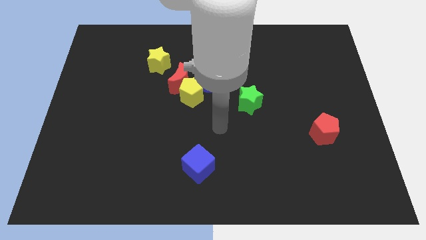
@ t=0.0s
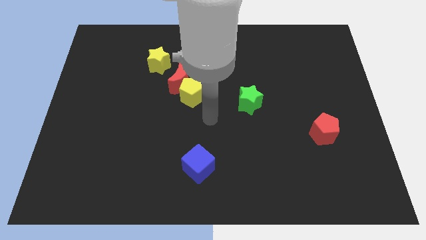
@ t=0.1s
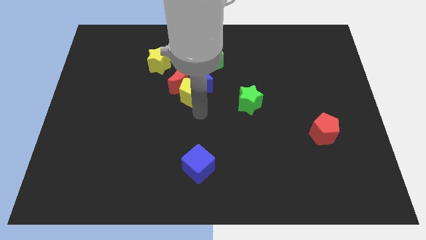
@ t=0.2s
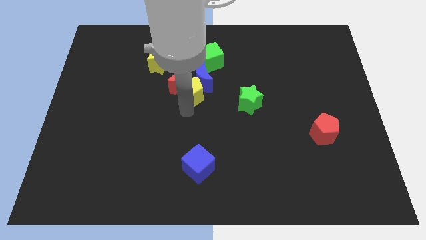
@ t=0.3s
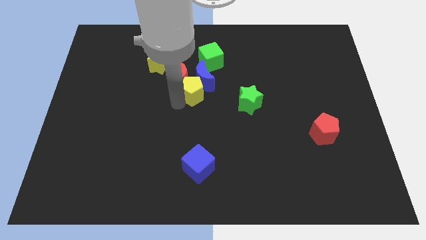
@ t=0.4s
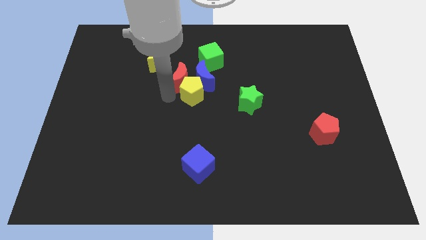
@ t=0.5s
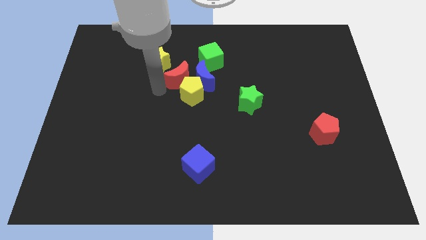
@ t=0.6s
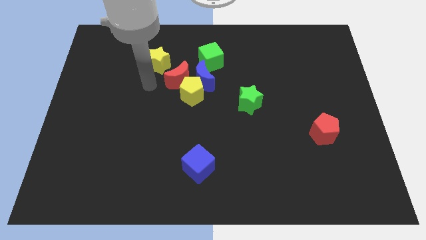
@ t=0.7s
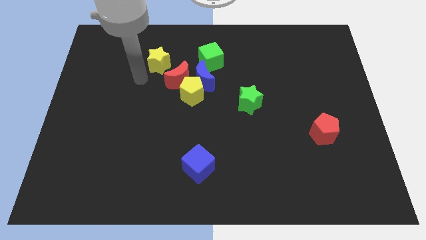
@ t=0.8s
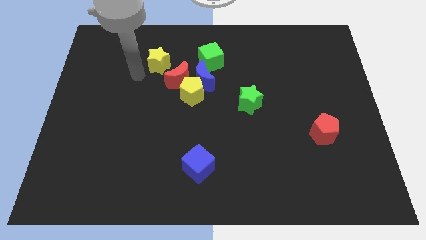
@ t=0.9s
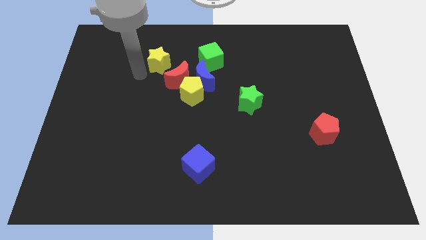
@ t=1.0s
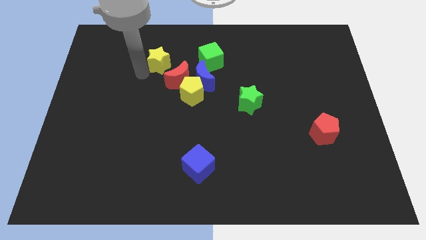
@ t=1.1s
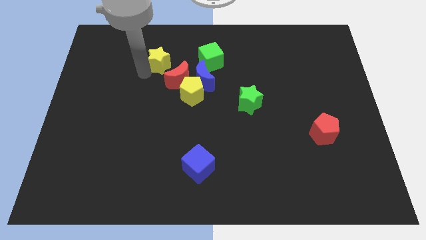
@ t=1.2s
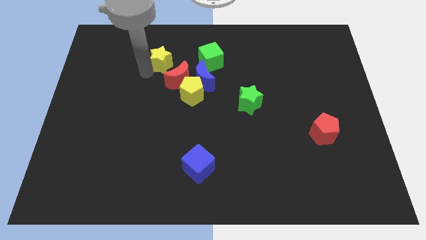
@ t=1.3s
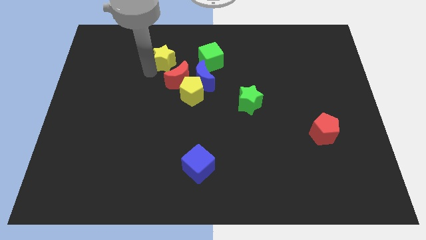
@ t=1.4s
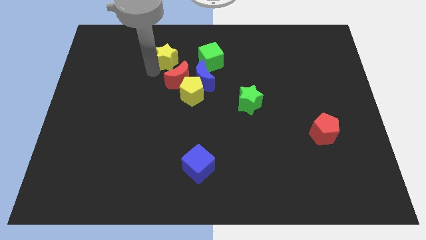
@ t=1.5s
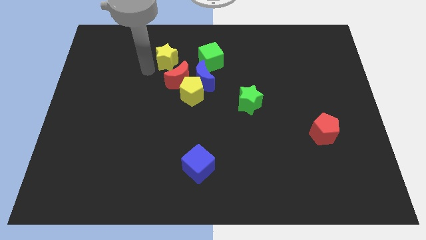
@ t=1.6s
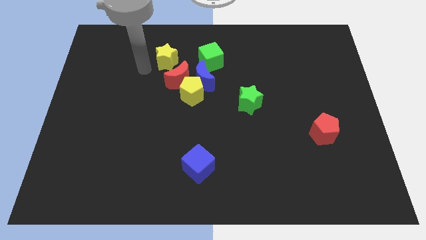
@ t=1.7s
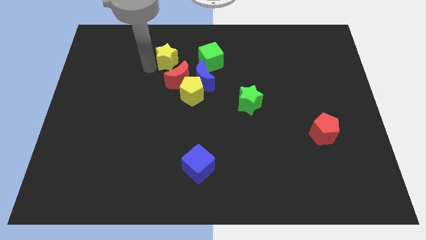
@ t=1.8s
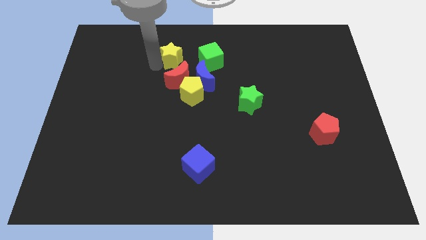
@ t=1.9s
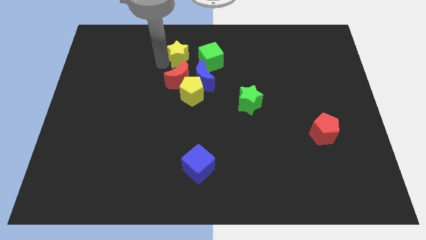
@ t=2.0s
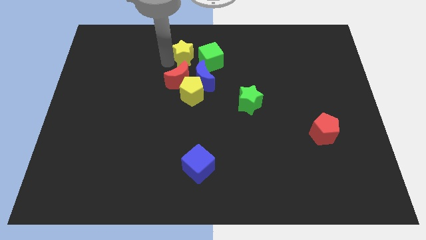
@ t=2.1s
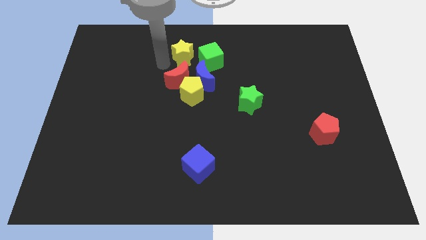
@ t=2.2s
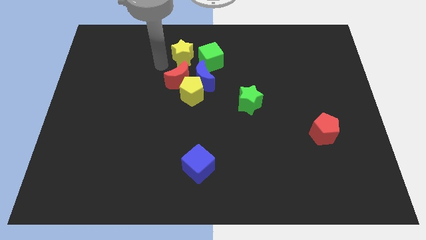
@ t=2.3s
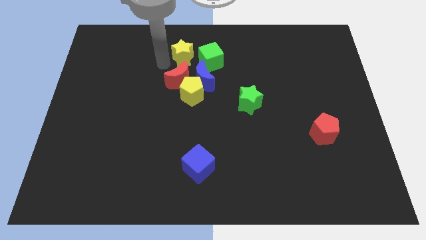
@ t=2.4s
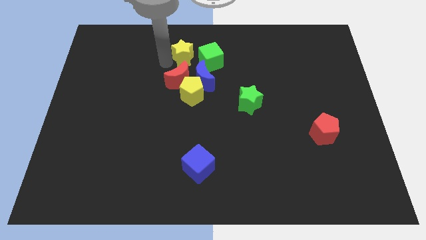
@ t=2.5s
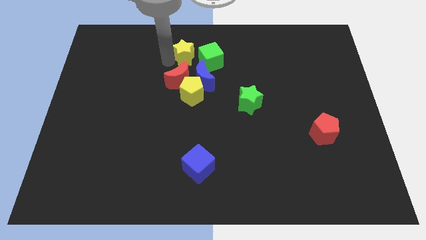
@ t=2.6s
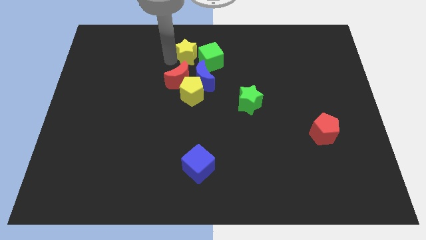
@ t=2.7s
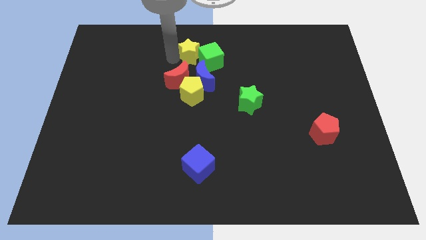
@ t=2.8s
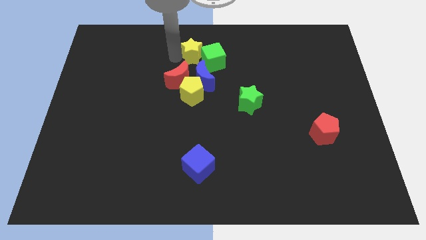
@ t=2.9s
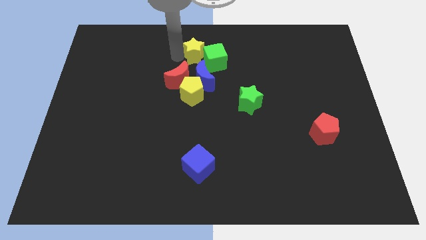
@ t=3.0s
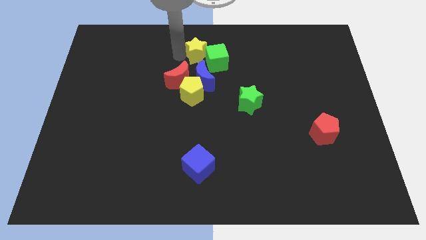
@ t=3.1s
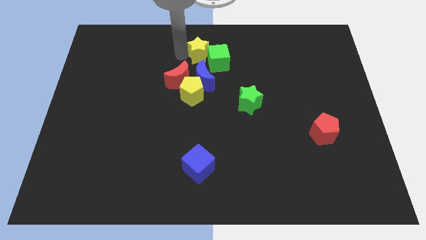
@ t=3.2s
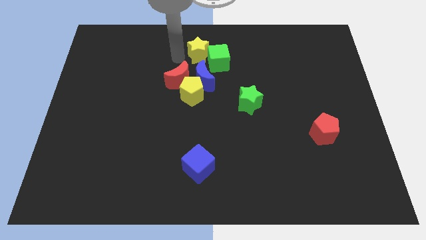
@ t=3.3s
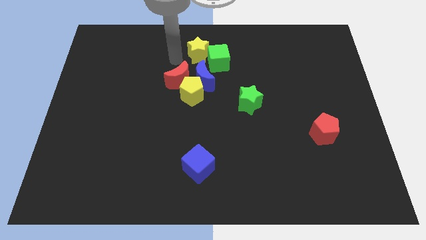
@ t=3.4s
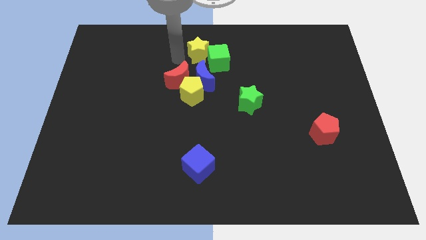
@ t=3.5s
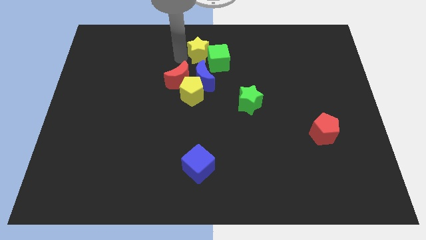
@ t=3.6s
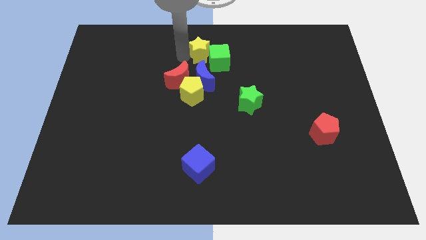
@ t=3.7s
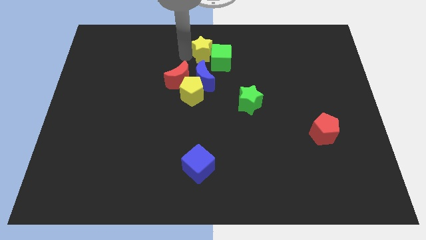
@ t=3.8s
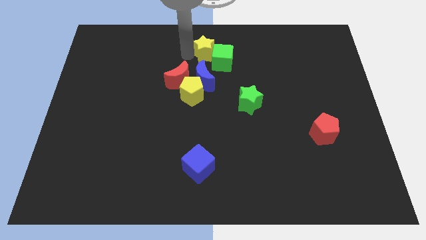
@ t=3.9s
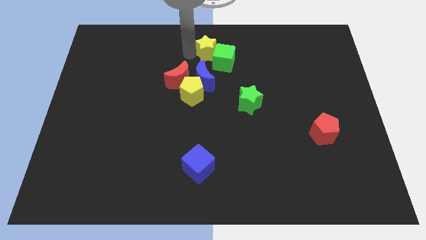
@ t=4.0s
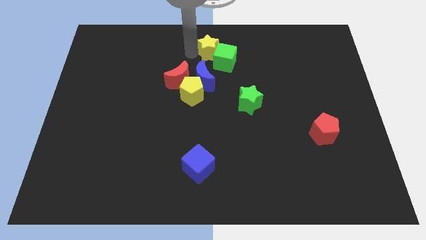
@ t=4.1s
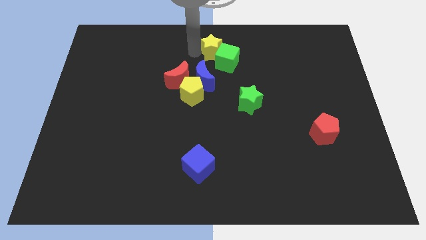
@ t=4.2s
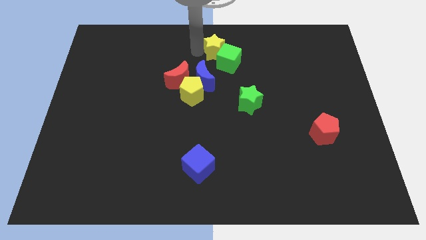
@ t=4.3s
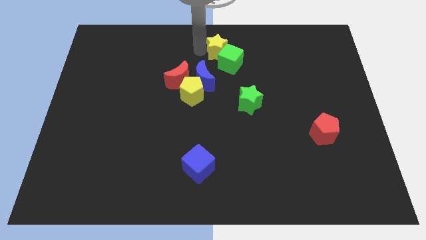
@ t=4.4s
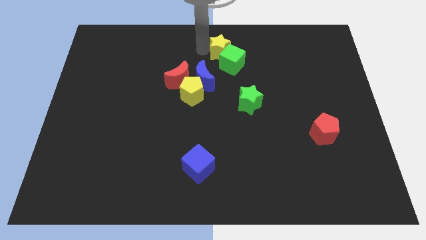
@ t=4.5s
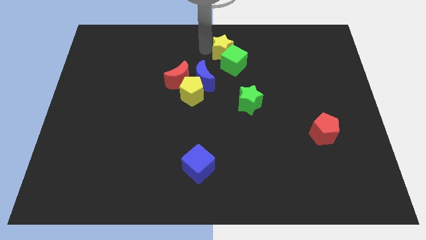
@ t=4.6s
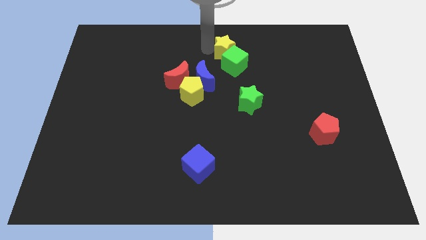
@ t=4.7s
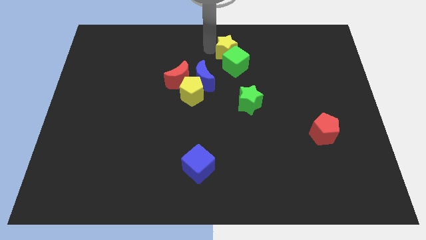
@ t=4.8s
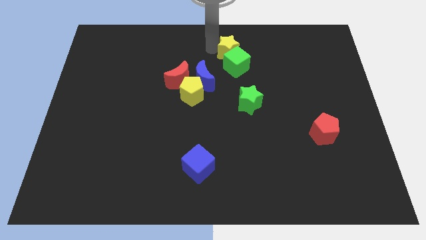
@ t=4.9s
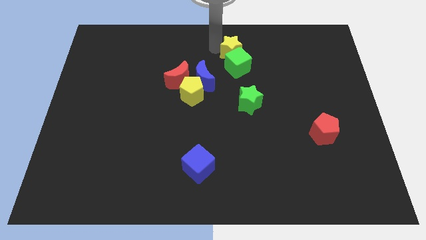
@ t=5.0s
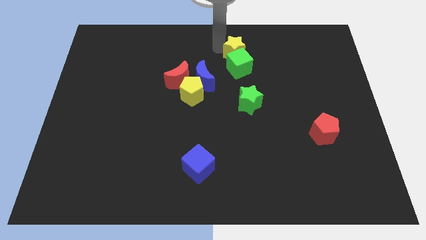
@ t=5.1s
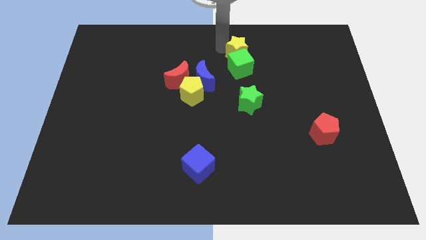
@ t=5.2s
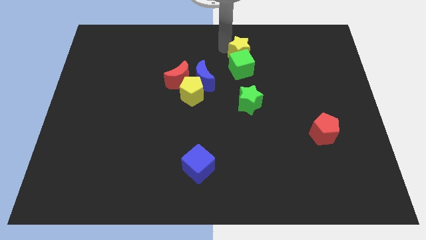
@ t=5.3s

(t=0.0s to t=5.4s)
push the yellow star to the right

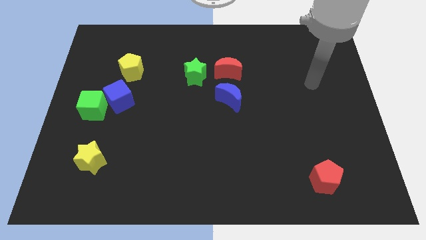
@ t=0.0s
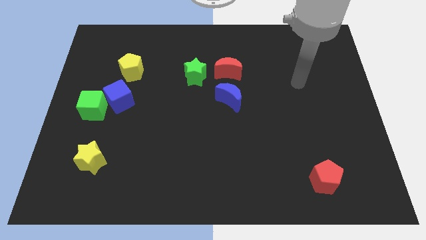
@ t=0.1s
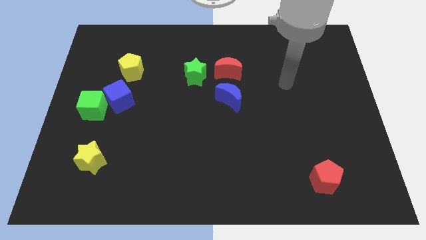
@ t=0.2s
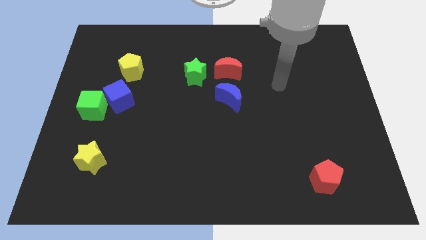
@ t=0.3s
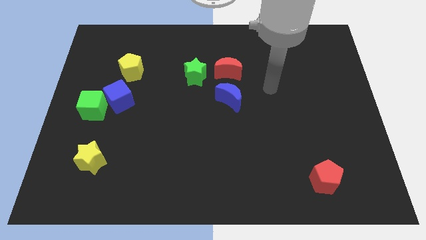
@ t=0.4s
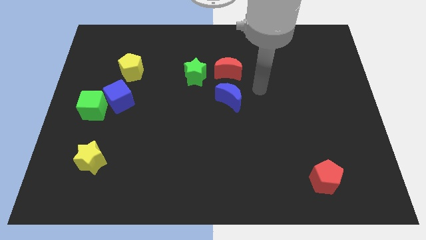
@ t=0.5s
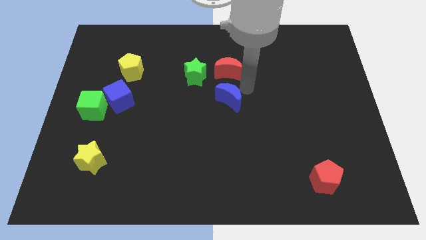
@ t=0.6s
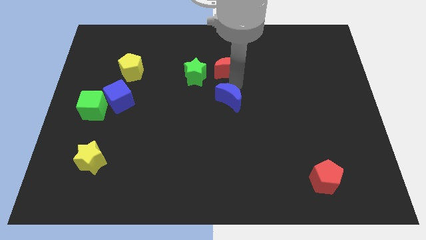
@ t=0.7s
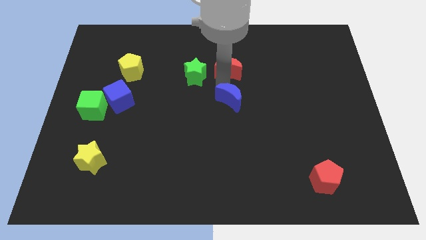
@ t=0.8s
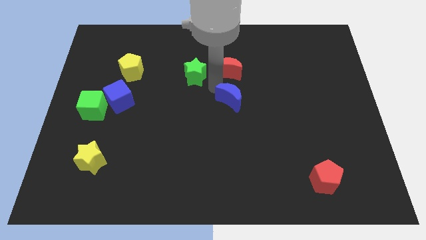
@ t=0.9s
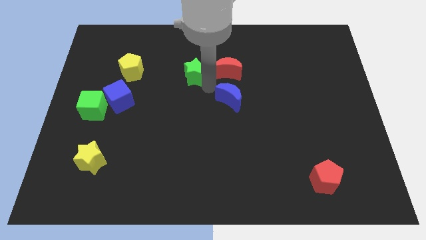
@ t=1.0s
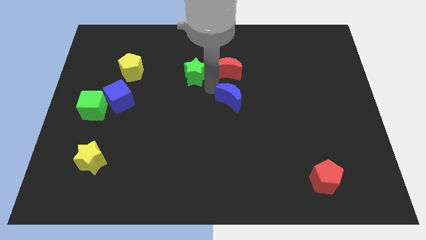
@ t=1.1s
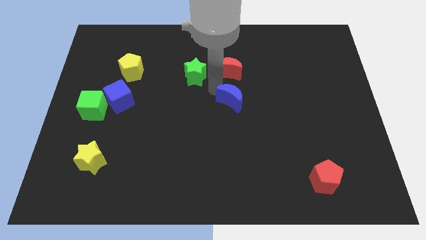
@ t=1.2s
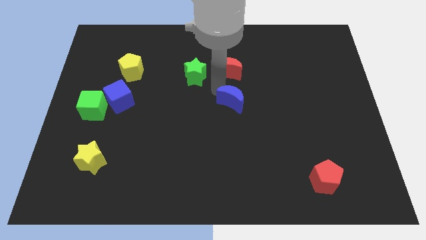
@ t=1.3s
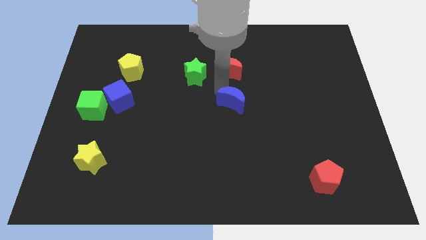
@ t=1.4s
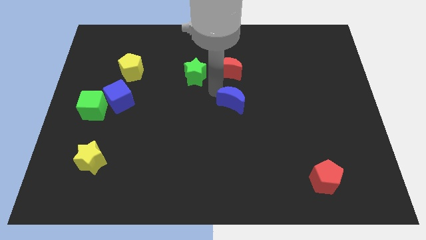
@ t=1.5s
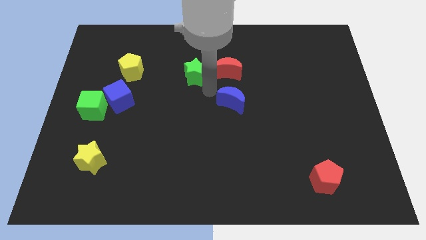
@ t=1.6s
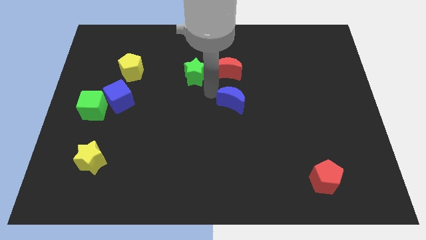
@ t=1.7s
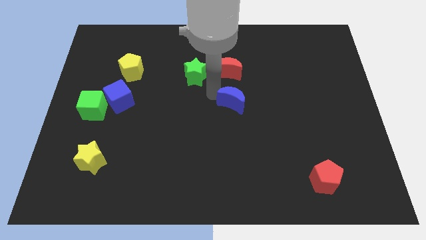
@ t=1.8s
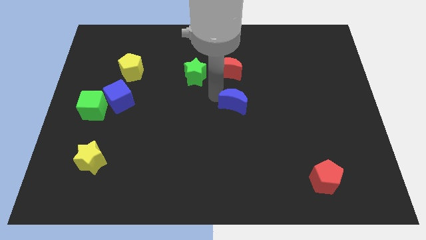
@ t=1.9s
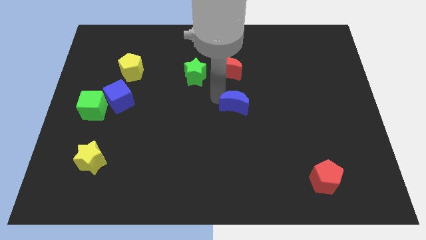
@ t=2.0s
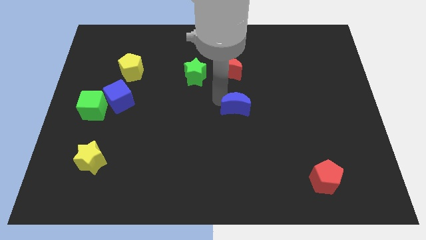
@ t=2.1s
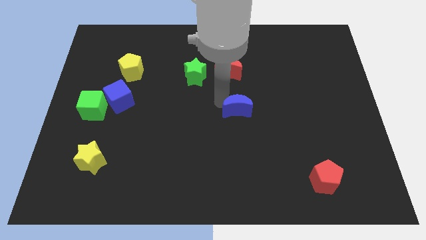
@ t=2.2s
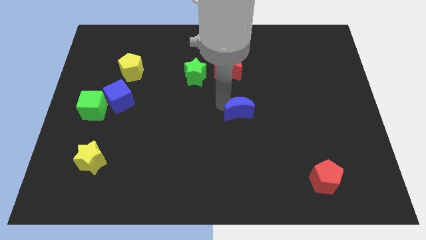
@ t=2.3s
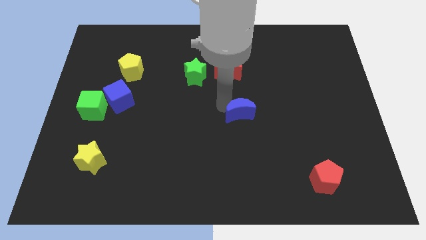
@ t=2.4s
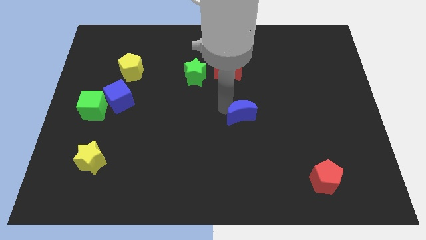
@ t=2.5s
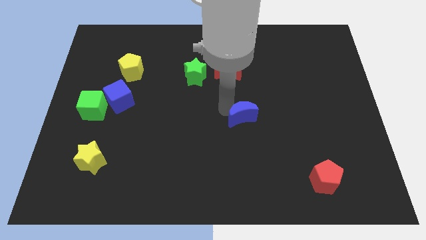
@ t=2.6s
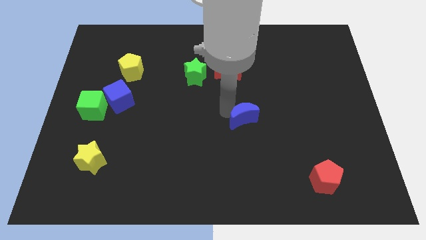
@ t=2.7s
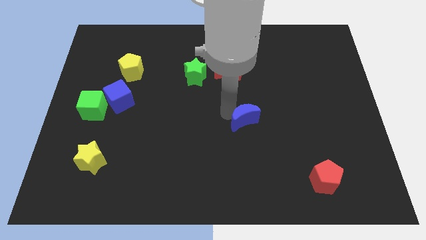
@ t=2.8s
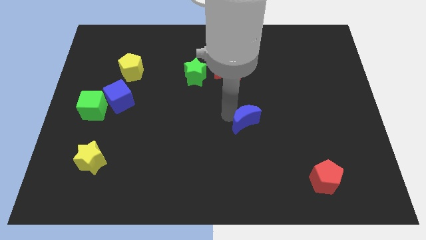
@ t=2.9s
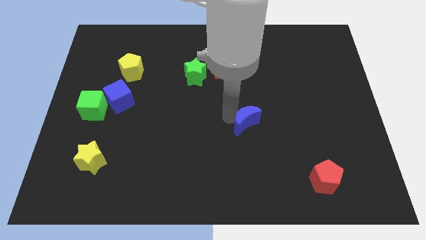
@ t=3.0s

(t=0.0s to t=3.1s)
slide the blue moon slightly diagonally downwards and to the right
